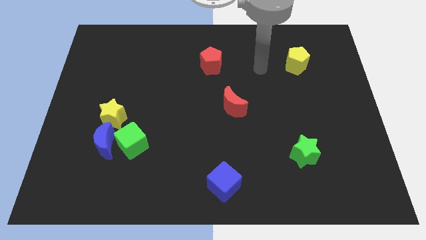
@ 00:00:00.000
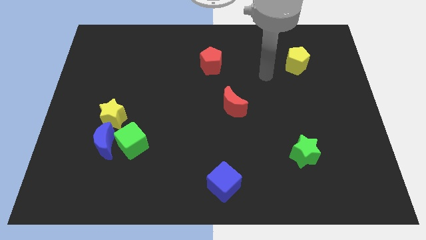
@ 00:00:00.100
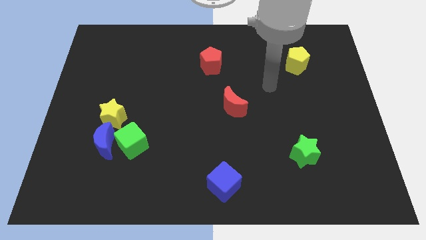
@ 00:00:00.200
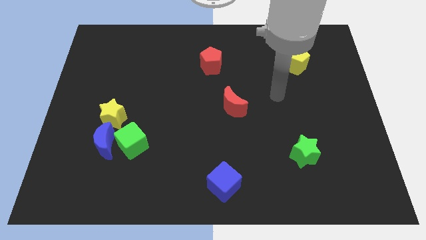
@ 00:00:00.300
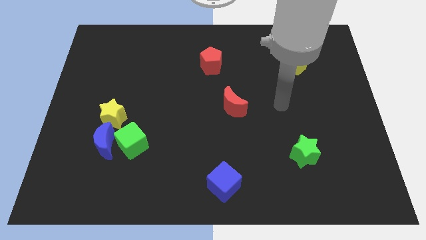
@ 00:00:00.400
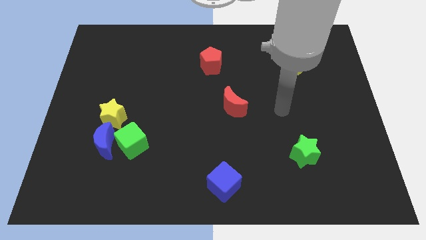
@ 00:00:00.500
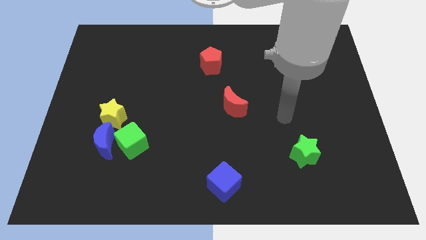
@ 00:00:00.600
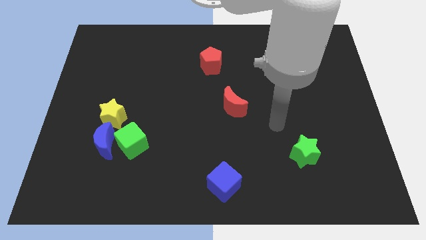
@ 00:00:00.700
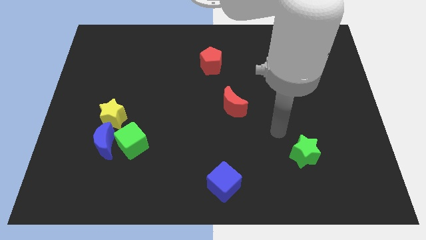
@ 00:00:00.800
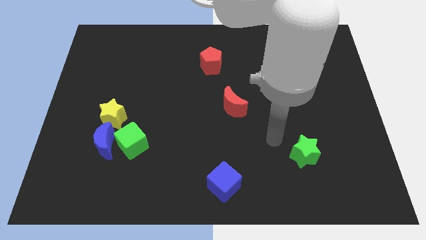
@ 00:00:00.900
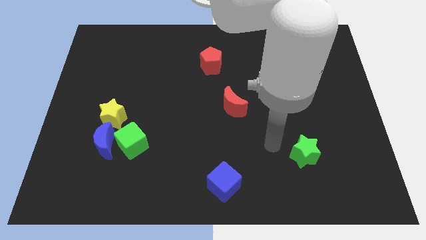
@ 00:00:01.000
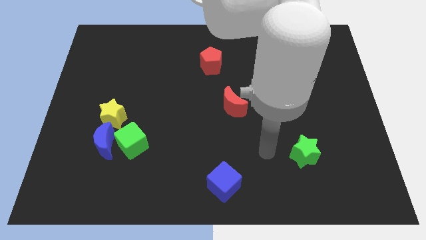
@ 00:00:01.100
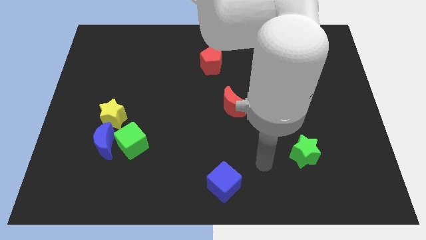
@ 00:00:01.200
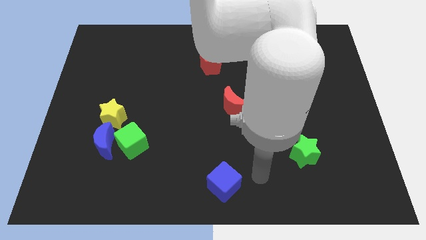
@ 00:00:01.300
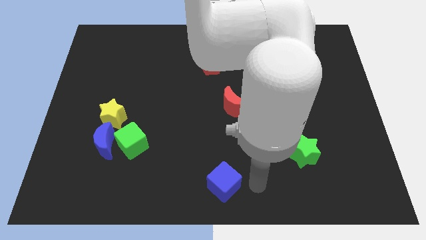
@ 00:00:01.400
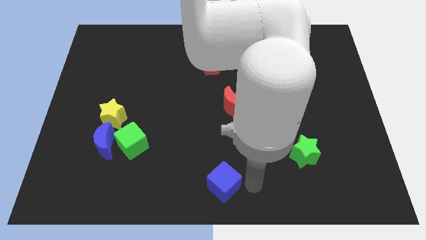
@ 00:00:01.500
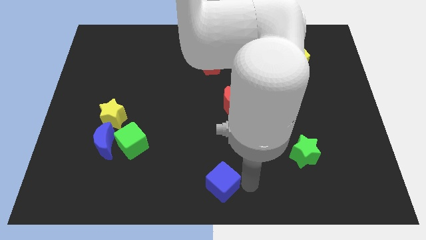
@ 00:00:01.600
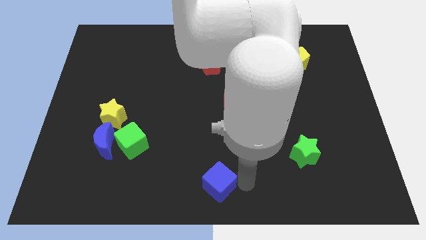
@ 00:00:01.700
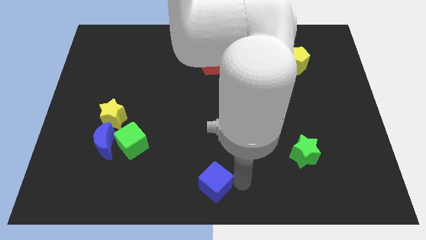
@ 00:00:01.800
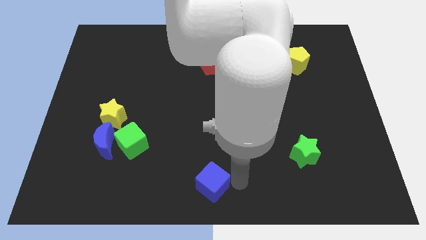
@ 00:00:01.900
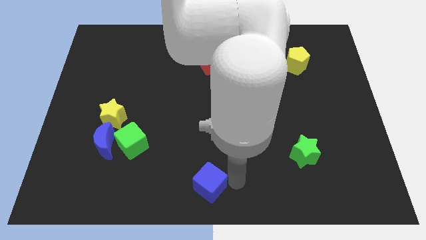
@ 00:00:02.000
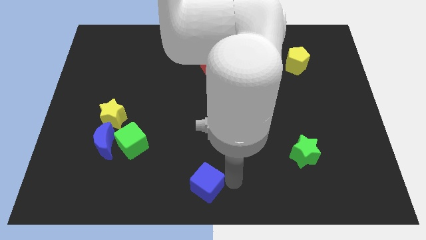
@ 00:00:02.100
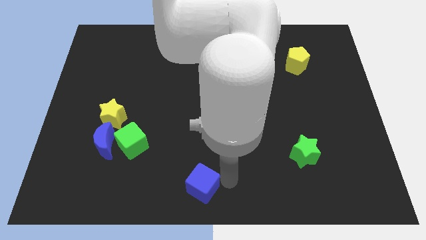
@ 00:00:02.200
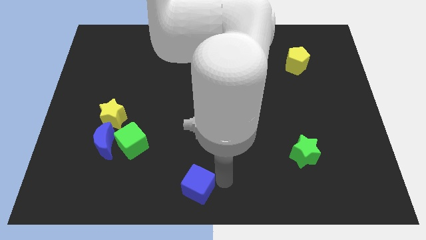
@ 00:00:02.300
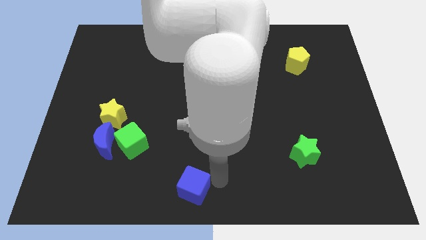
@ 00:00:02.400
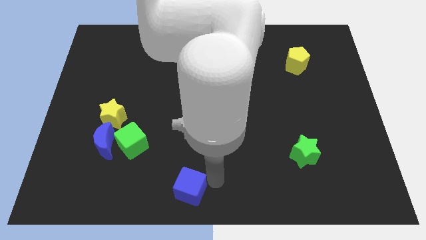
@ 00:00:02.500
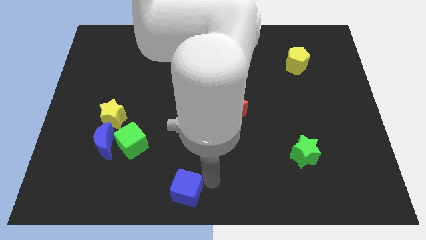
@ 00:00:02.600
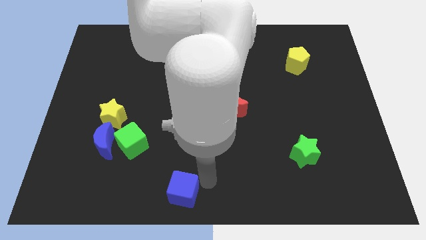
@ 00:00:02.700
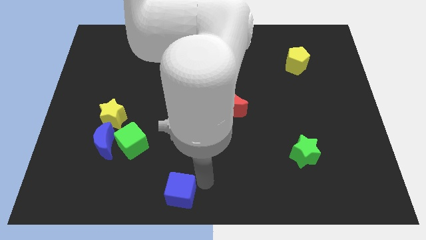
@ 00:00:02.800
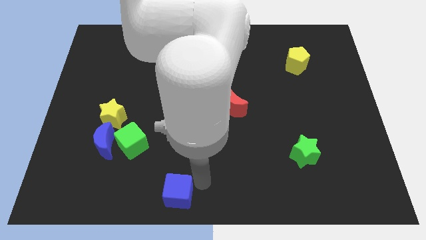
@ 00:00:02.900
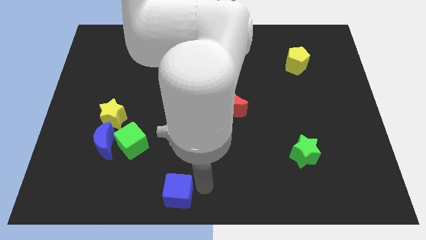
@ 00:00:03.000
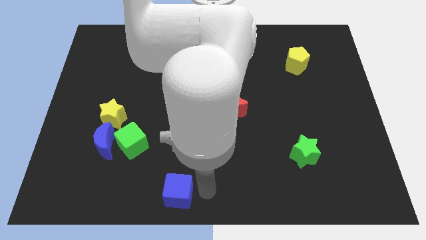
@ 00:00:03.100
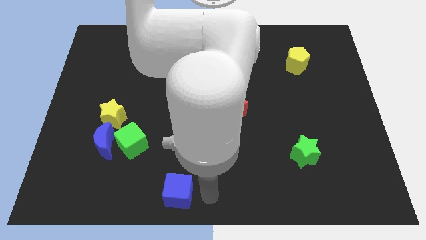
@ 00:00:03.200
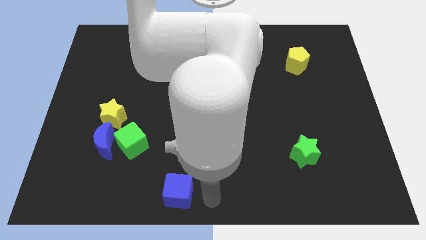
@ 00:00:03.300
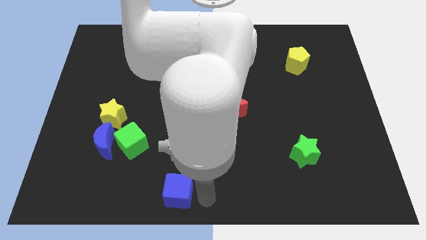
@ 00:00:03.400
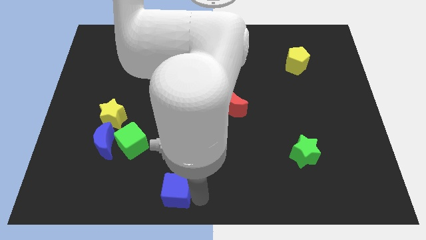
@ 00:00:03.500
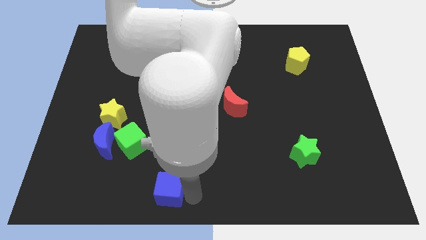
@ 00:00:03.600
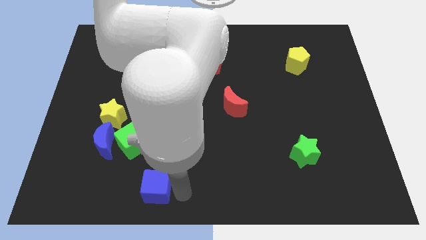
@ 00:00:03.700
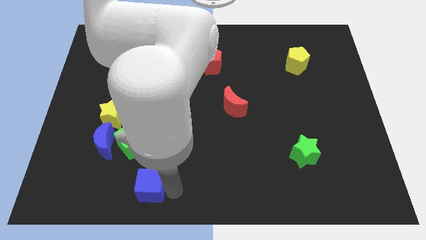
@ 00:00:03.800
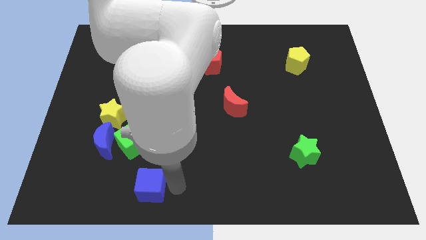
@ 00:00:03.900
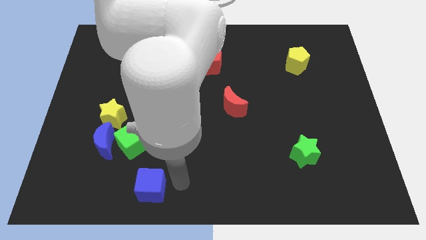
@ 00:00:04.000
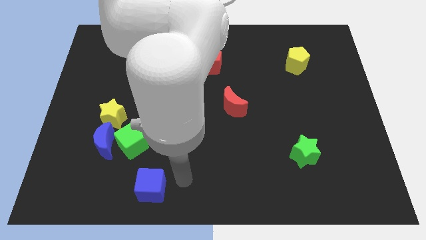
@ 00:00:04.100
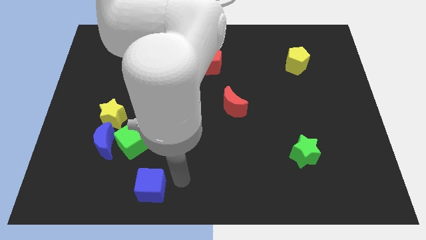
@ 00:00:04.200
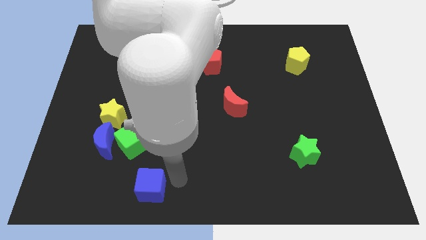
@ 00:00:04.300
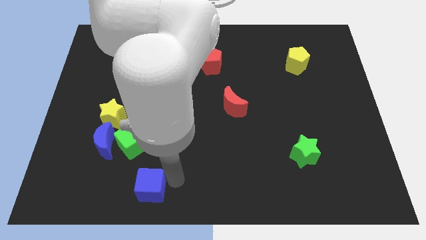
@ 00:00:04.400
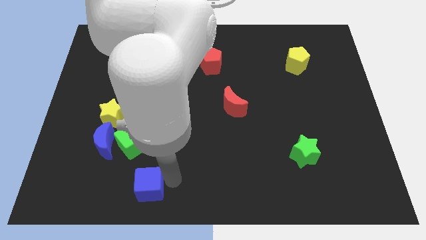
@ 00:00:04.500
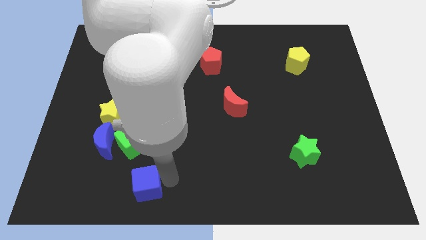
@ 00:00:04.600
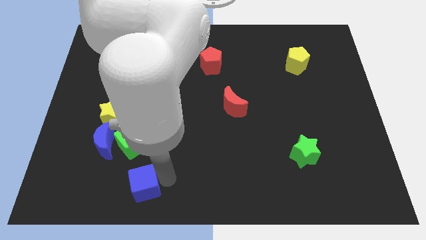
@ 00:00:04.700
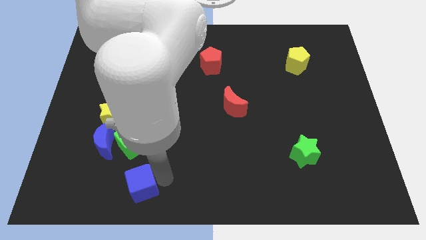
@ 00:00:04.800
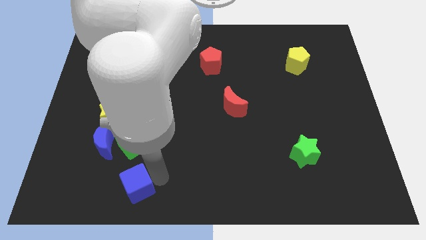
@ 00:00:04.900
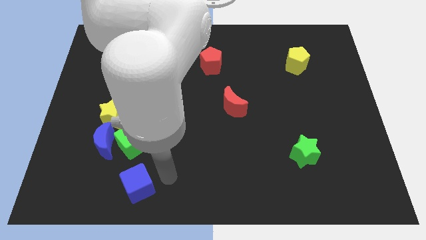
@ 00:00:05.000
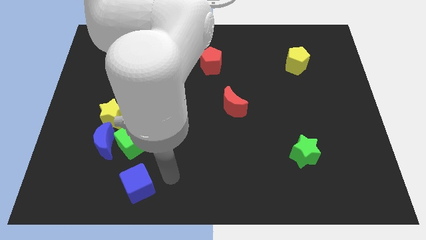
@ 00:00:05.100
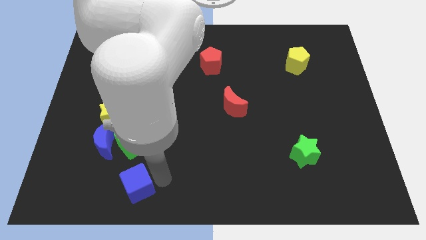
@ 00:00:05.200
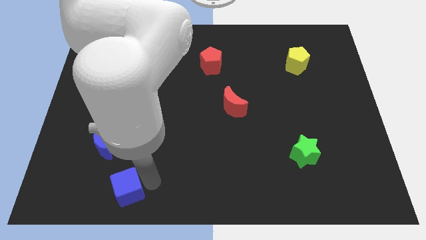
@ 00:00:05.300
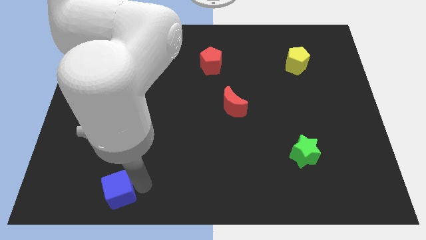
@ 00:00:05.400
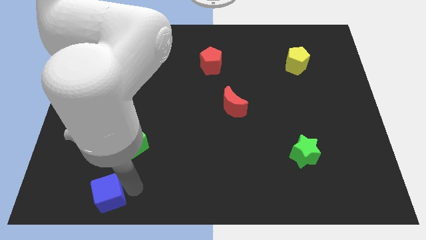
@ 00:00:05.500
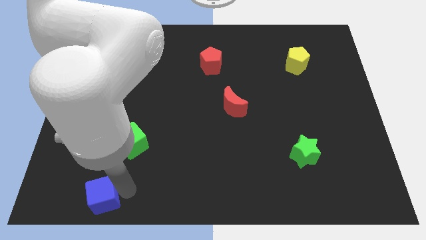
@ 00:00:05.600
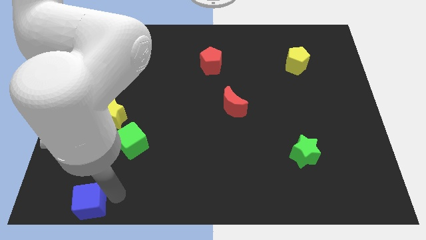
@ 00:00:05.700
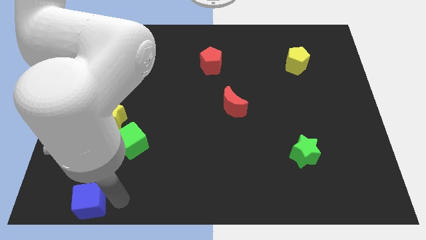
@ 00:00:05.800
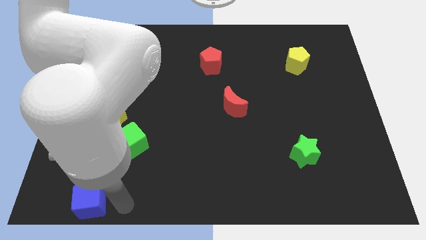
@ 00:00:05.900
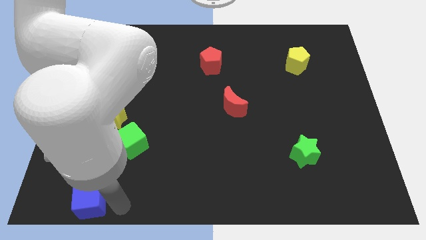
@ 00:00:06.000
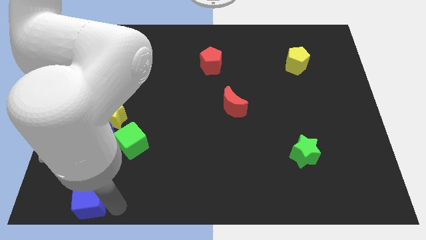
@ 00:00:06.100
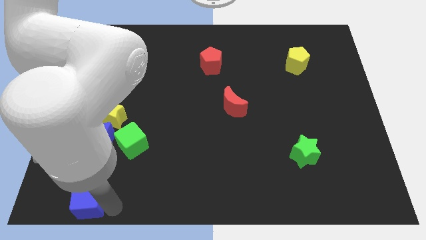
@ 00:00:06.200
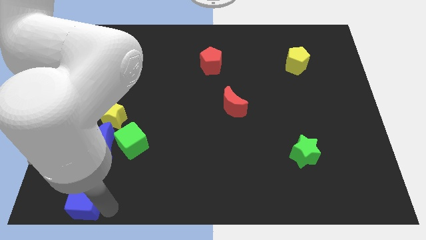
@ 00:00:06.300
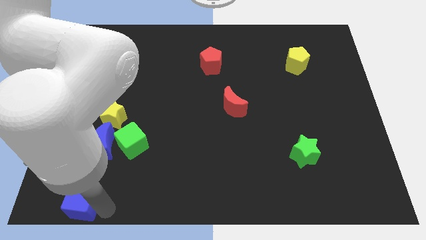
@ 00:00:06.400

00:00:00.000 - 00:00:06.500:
slide the blue cube to the bottom left corner
